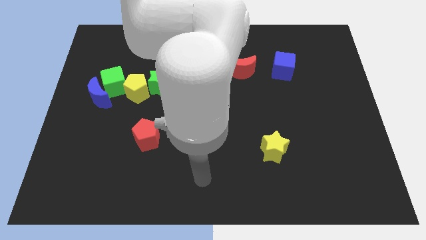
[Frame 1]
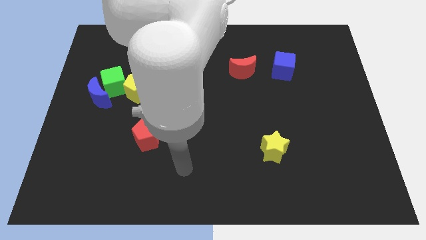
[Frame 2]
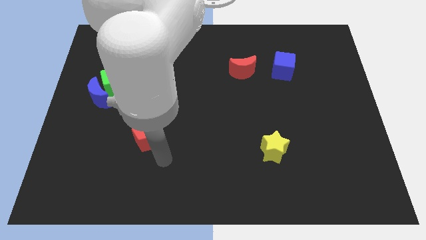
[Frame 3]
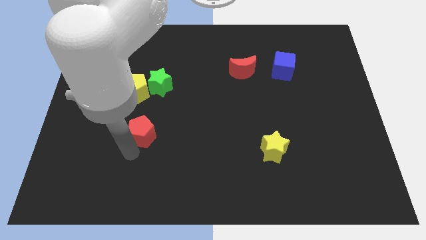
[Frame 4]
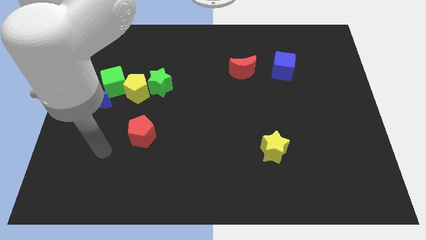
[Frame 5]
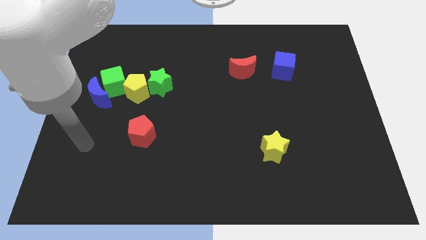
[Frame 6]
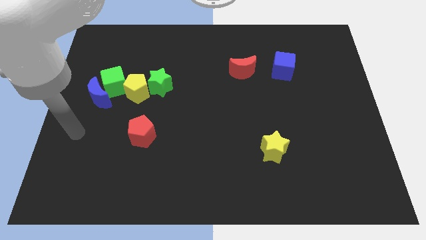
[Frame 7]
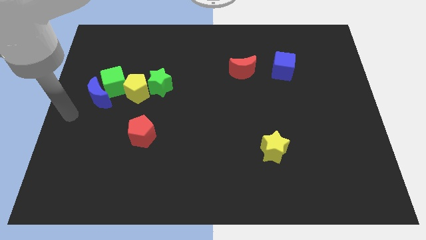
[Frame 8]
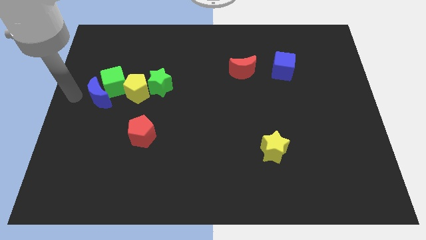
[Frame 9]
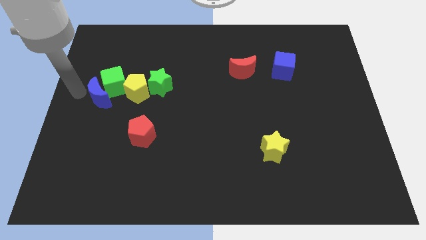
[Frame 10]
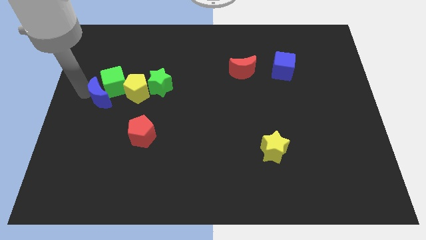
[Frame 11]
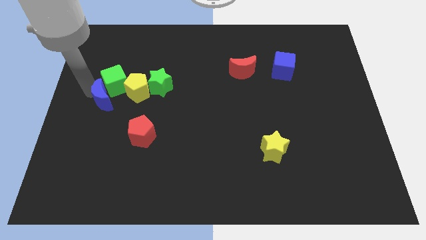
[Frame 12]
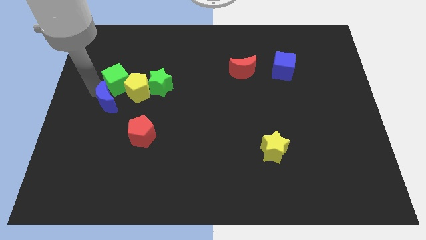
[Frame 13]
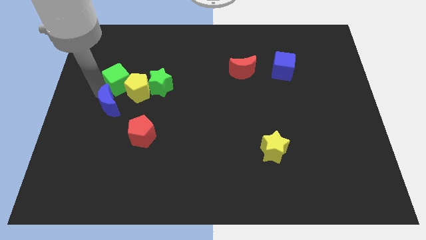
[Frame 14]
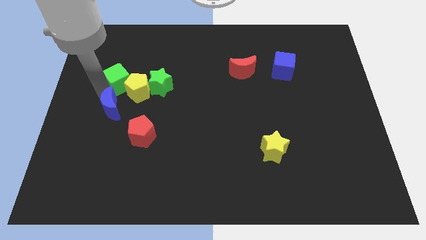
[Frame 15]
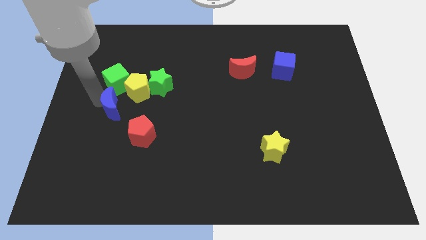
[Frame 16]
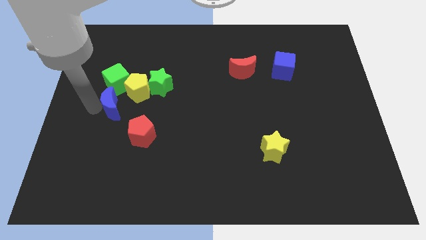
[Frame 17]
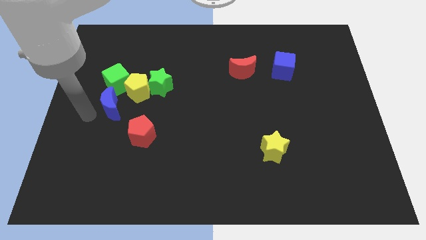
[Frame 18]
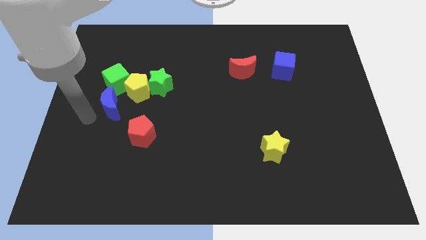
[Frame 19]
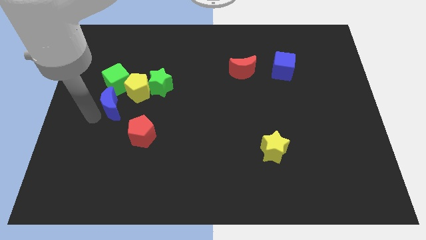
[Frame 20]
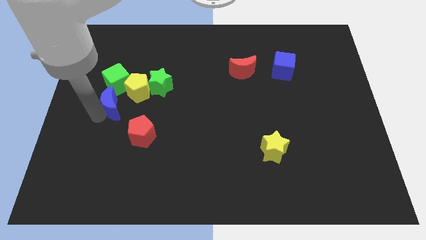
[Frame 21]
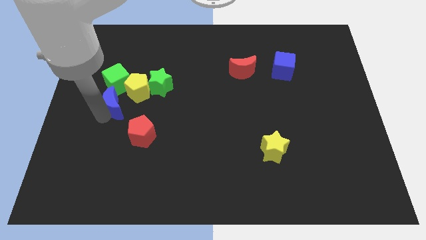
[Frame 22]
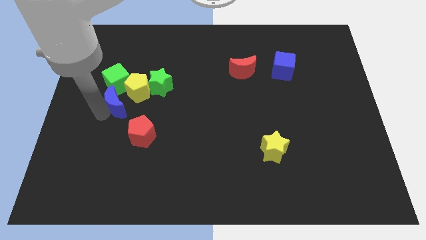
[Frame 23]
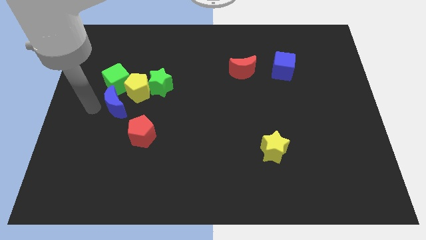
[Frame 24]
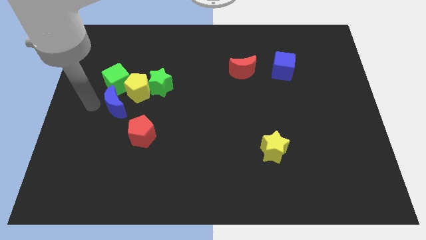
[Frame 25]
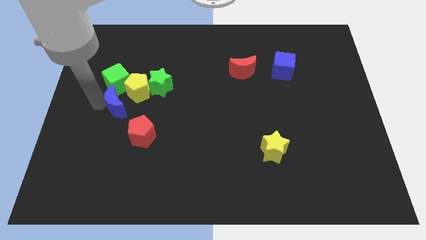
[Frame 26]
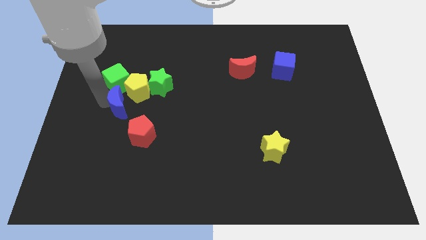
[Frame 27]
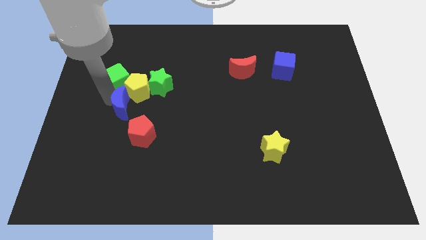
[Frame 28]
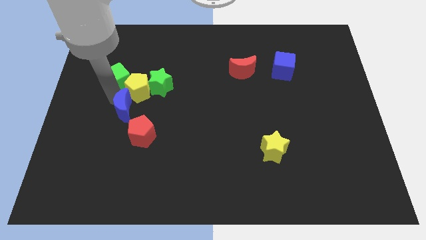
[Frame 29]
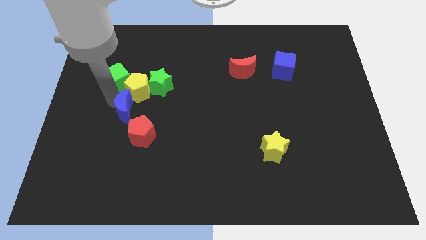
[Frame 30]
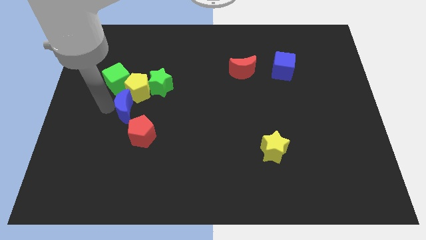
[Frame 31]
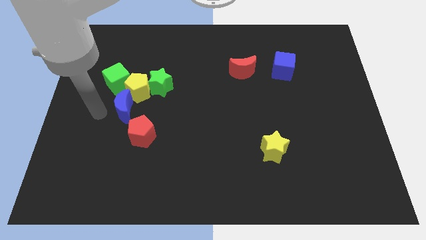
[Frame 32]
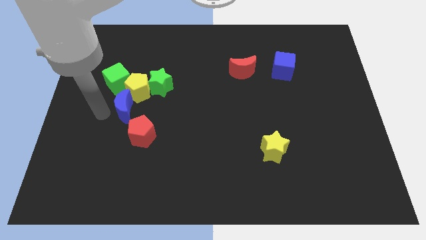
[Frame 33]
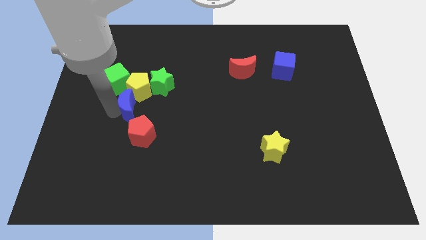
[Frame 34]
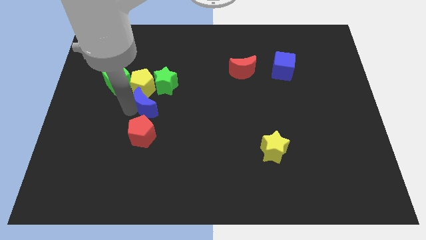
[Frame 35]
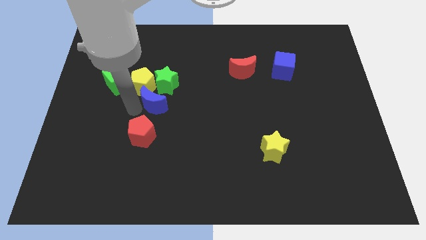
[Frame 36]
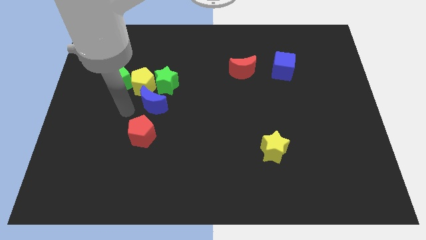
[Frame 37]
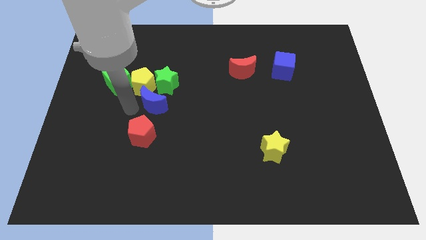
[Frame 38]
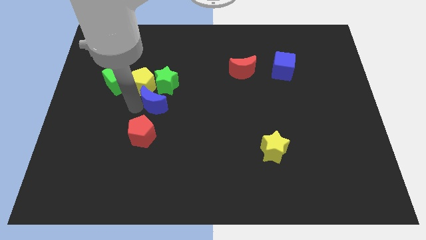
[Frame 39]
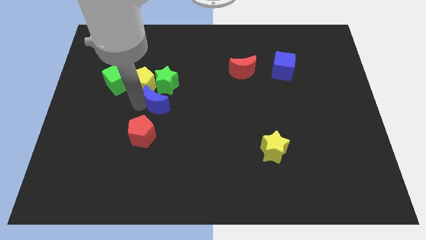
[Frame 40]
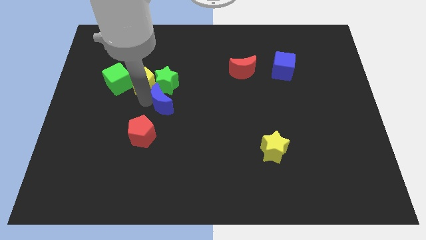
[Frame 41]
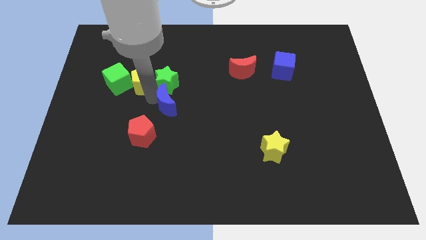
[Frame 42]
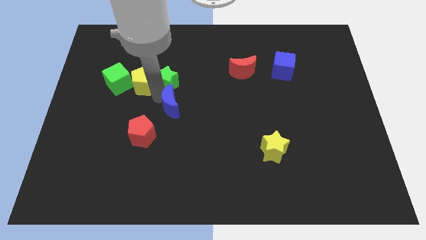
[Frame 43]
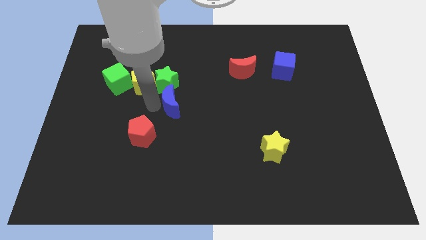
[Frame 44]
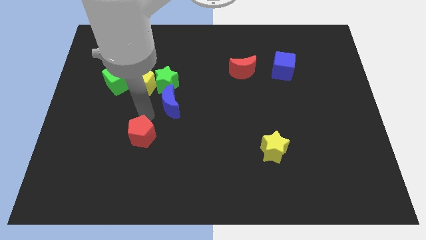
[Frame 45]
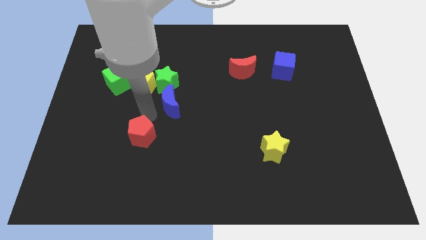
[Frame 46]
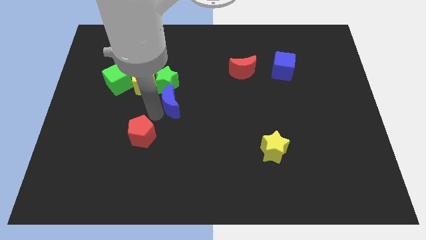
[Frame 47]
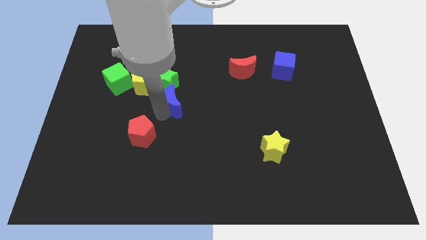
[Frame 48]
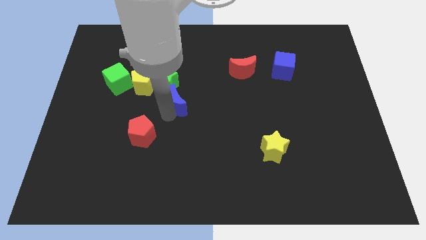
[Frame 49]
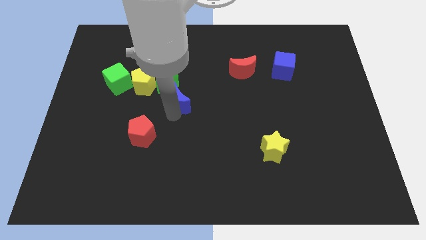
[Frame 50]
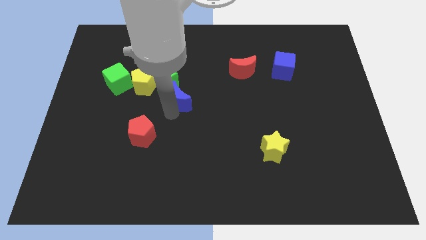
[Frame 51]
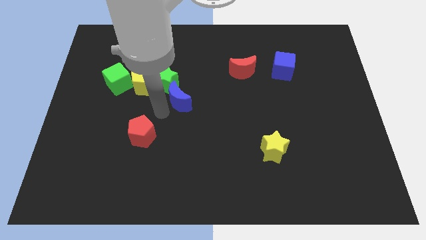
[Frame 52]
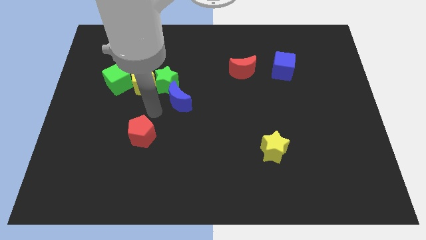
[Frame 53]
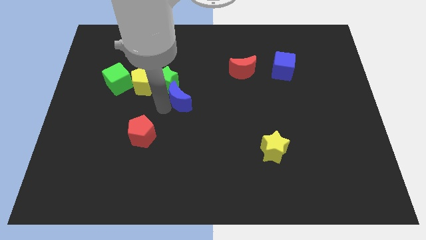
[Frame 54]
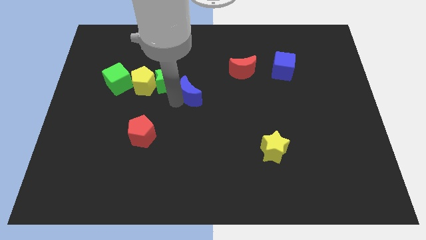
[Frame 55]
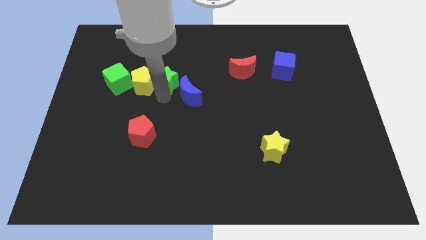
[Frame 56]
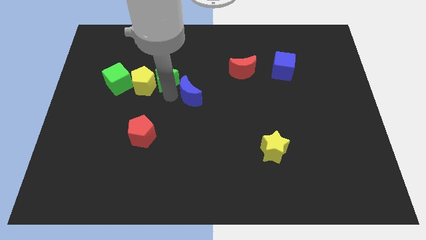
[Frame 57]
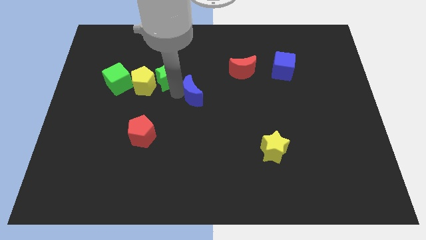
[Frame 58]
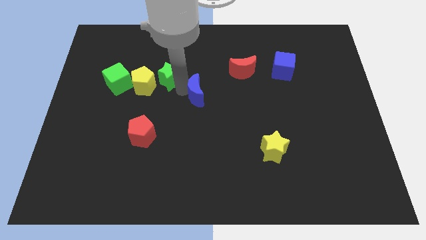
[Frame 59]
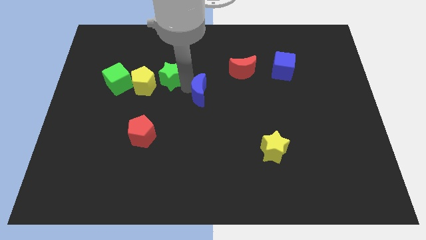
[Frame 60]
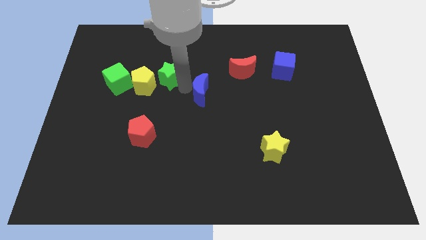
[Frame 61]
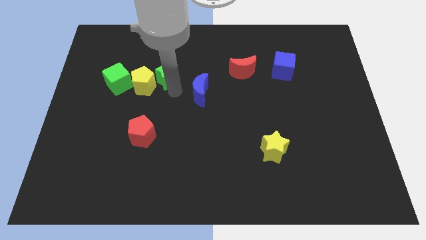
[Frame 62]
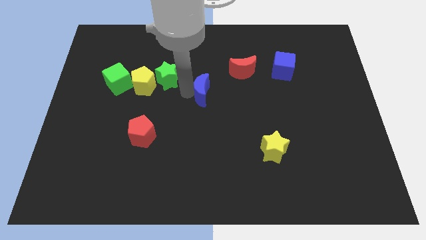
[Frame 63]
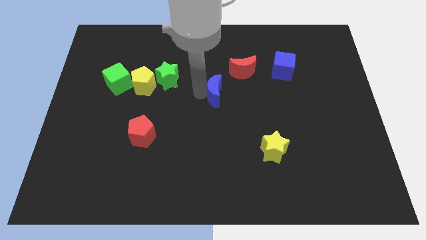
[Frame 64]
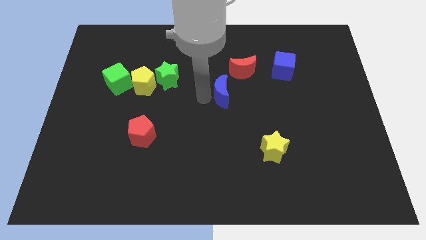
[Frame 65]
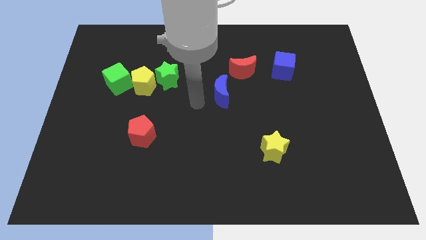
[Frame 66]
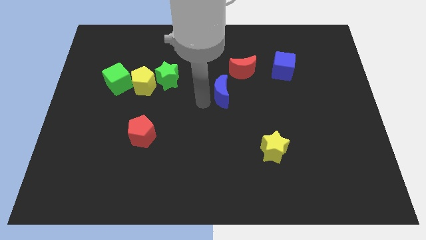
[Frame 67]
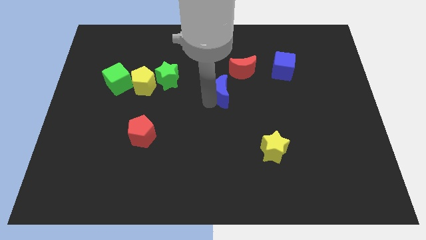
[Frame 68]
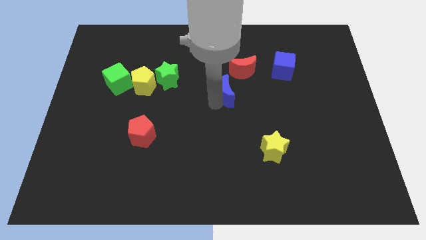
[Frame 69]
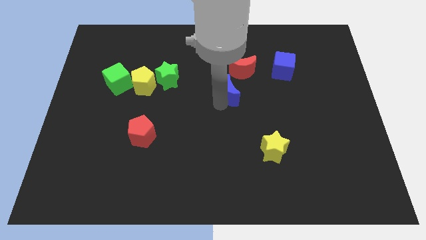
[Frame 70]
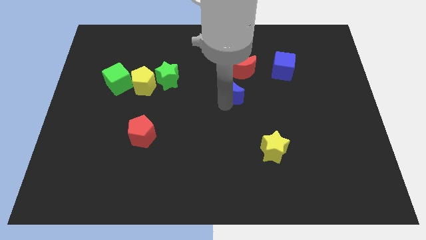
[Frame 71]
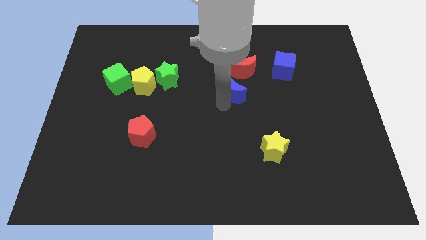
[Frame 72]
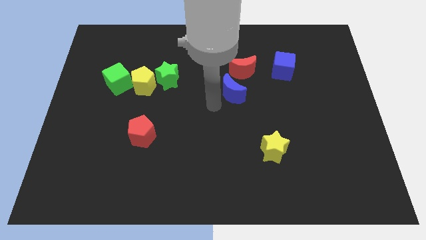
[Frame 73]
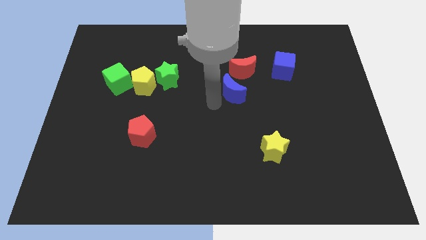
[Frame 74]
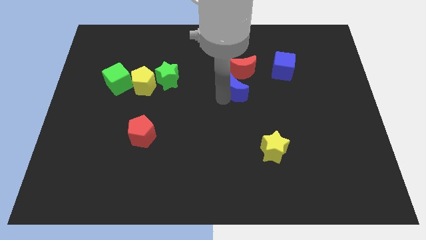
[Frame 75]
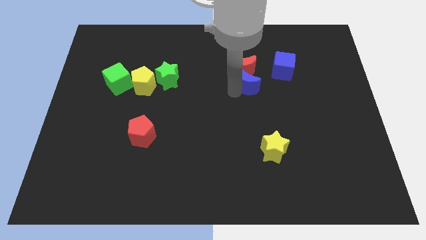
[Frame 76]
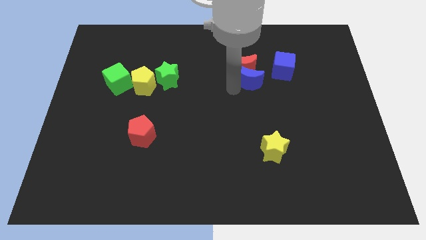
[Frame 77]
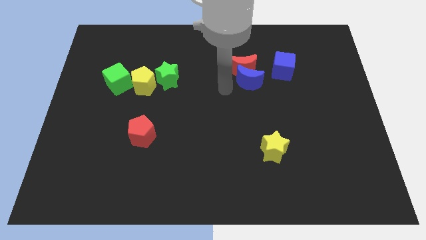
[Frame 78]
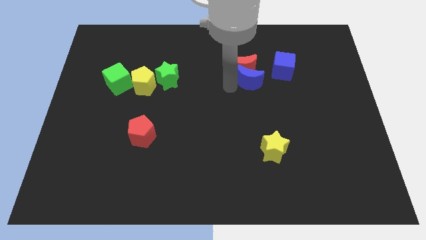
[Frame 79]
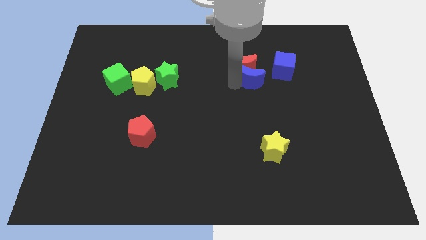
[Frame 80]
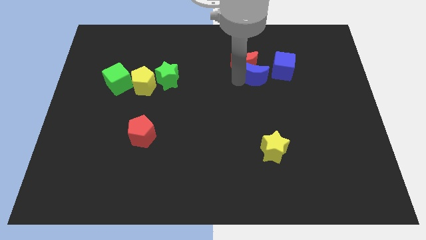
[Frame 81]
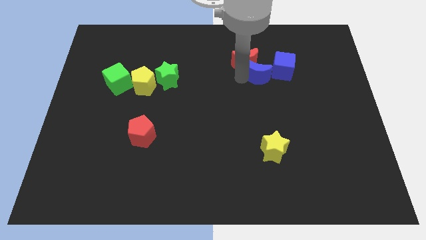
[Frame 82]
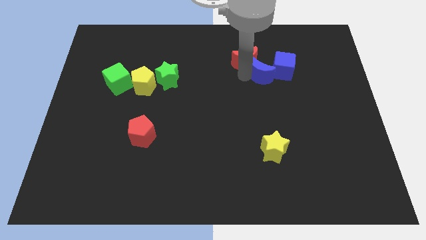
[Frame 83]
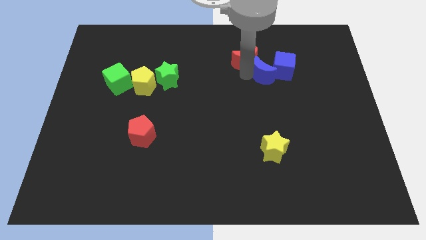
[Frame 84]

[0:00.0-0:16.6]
move the blue moon to the blue cube

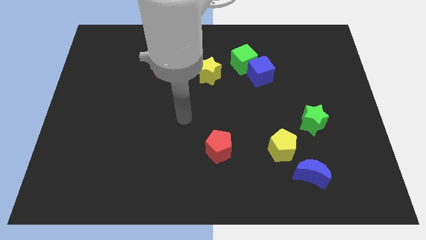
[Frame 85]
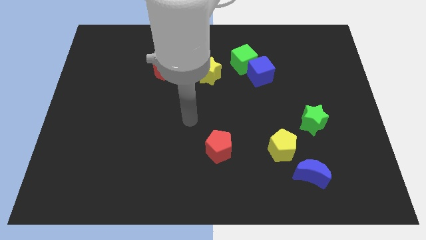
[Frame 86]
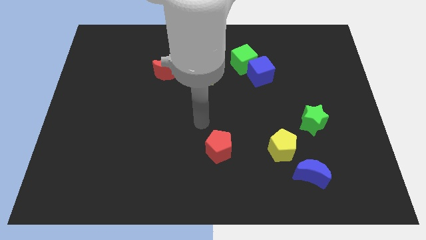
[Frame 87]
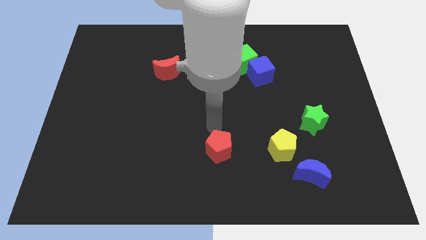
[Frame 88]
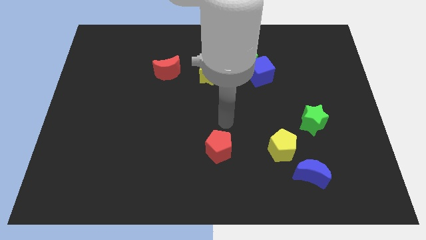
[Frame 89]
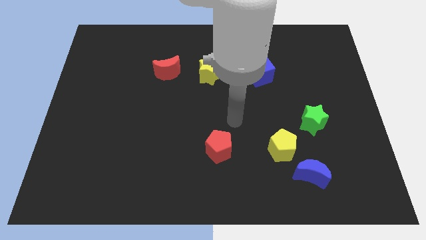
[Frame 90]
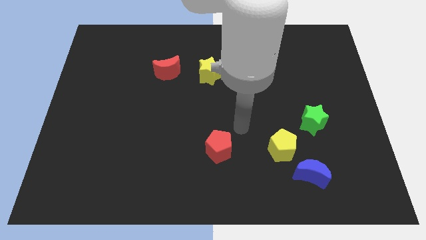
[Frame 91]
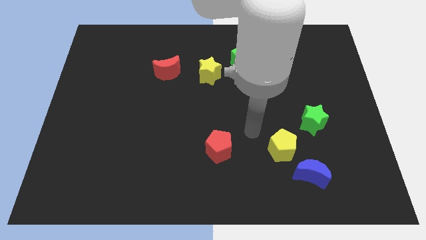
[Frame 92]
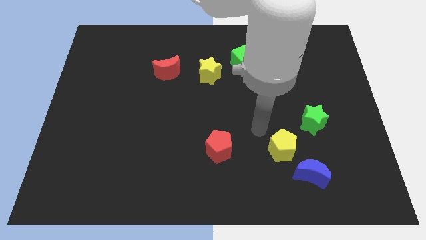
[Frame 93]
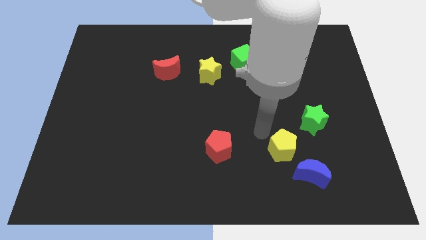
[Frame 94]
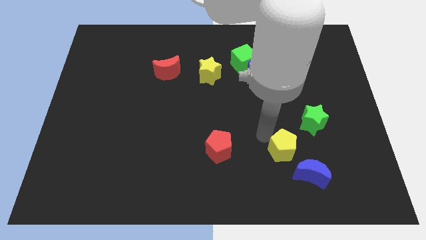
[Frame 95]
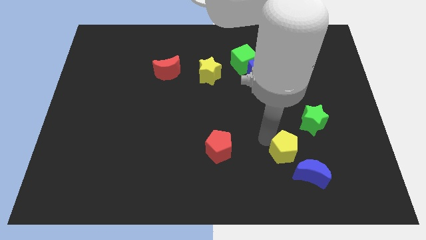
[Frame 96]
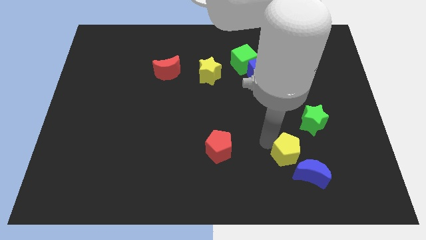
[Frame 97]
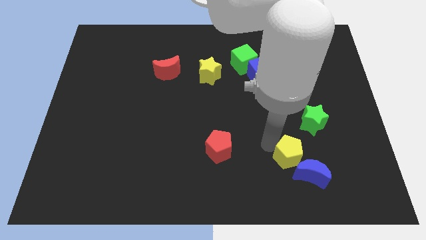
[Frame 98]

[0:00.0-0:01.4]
push the yellow pentagon to the blue moon
